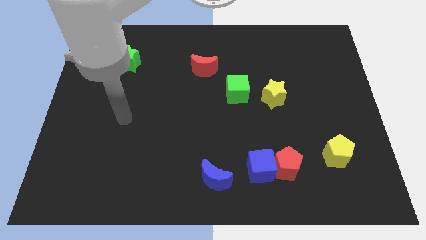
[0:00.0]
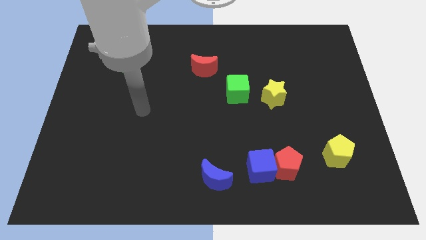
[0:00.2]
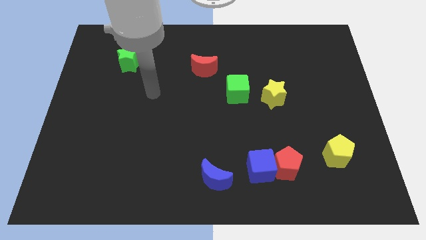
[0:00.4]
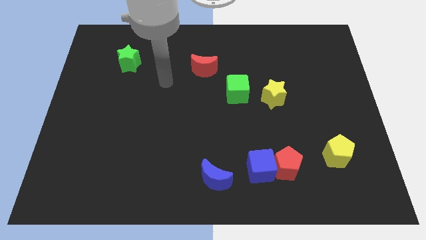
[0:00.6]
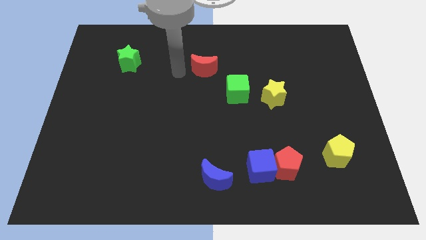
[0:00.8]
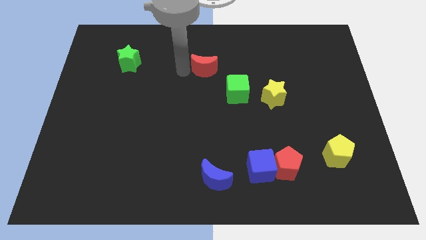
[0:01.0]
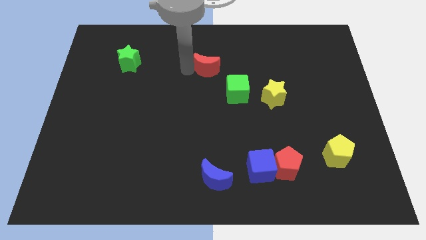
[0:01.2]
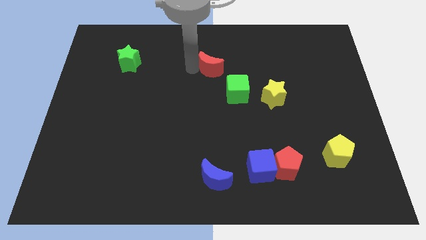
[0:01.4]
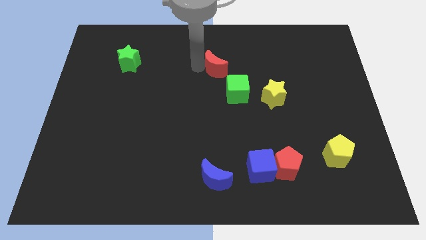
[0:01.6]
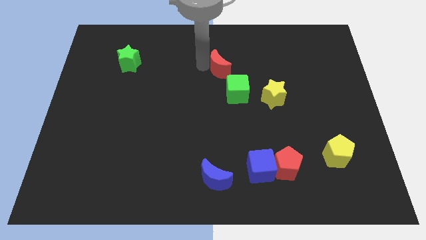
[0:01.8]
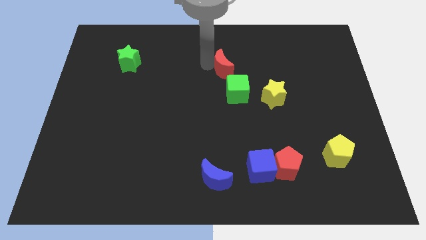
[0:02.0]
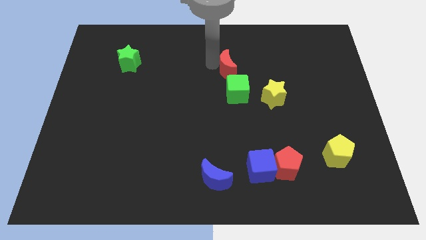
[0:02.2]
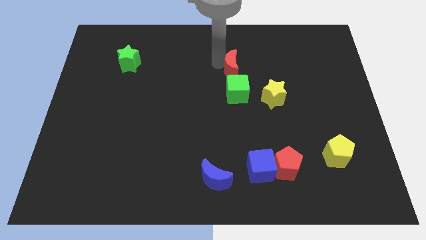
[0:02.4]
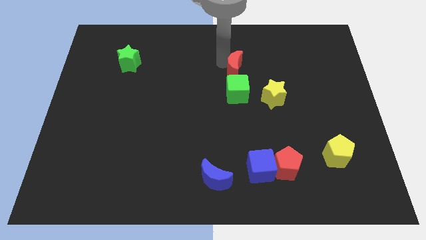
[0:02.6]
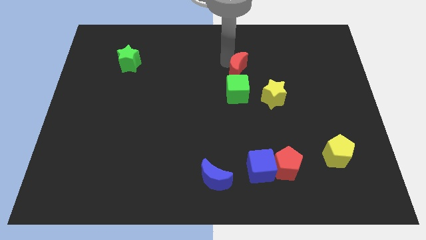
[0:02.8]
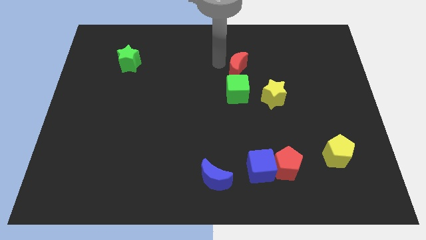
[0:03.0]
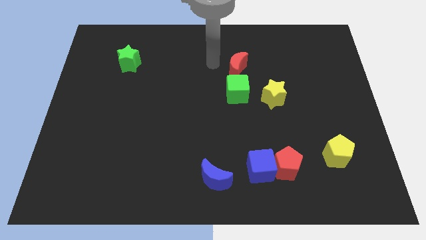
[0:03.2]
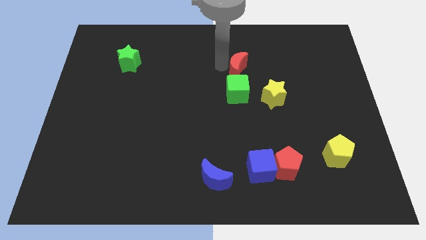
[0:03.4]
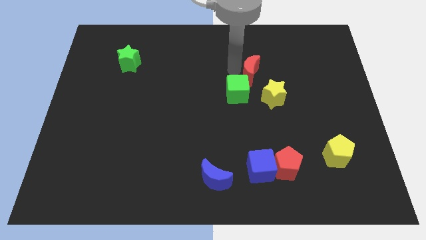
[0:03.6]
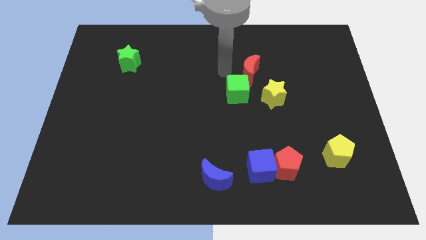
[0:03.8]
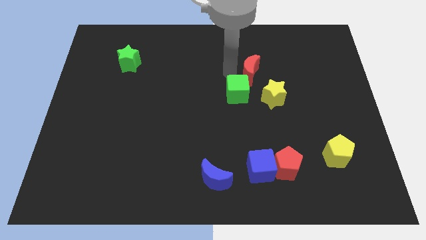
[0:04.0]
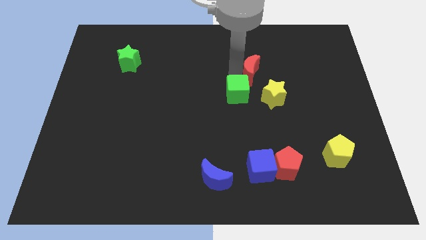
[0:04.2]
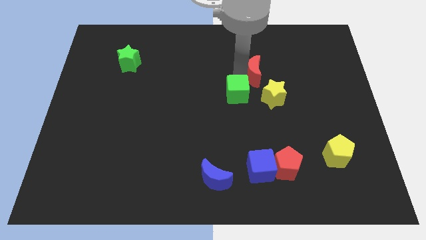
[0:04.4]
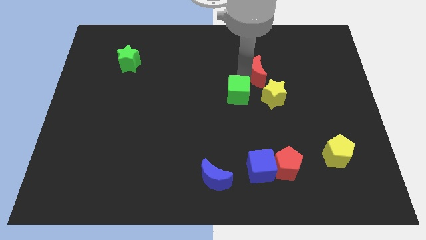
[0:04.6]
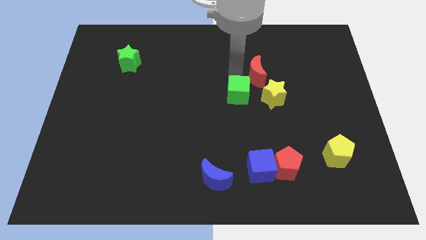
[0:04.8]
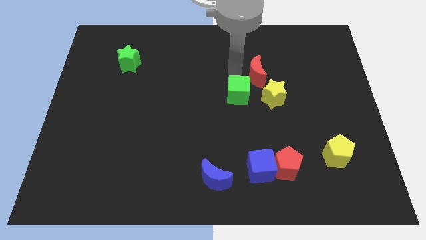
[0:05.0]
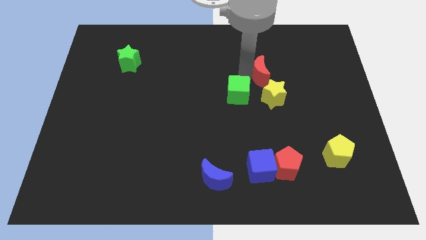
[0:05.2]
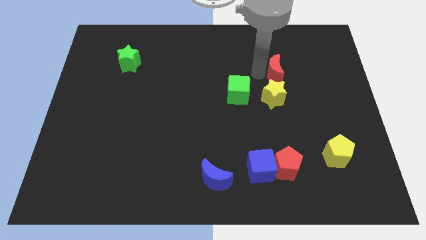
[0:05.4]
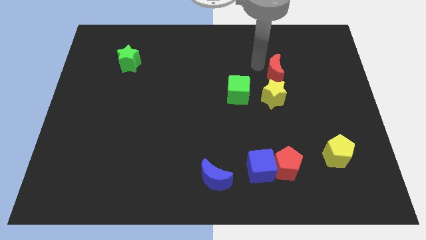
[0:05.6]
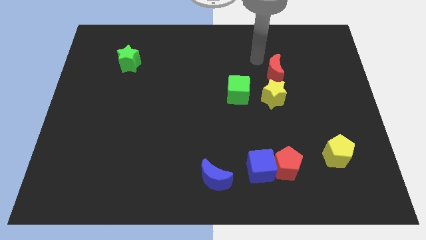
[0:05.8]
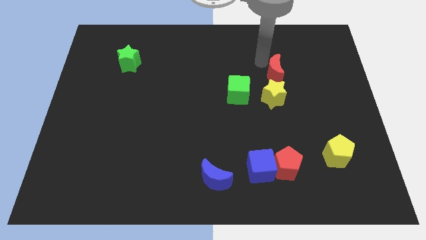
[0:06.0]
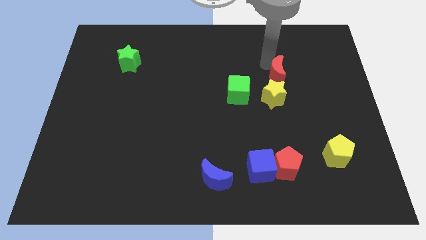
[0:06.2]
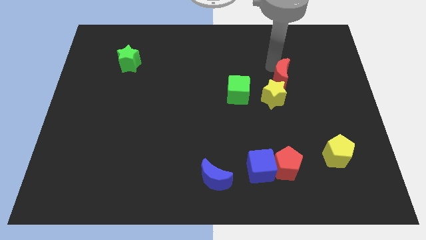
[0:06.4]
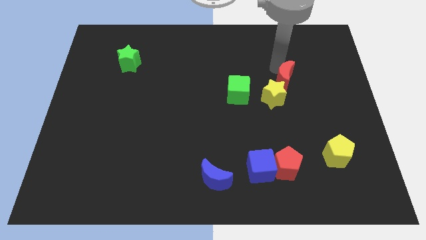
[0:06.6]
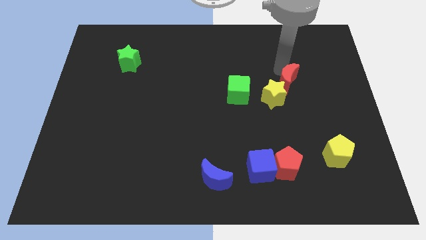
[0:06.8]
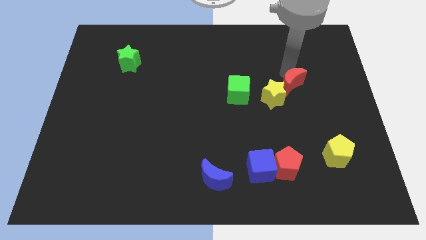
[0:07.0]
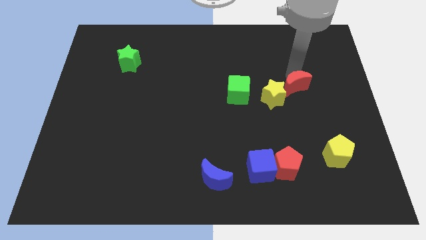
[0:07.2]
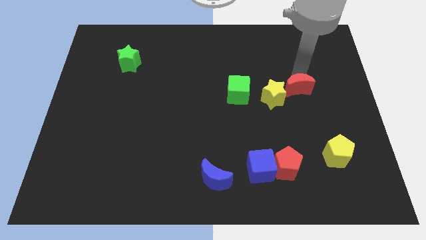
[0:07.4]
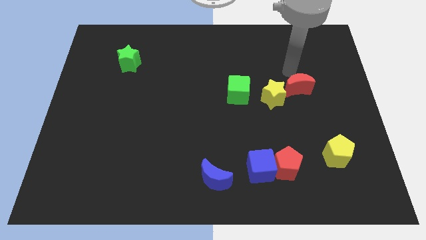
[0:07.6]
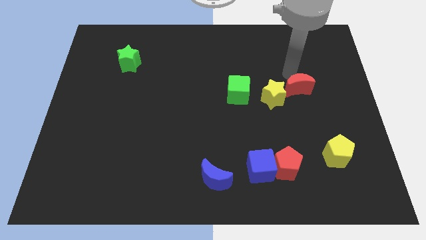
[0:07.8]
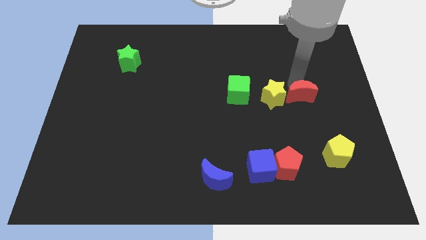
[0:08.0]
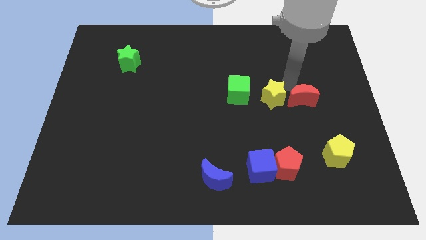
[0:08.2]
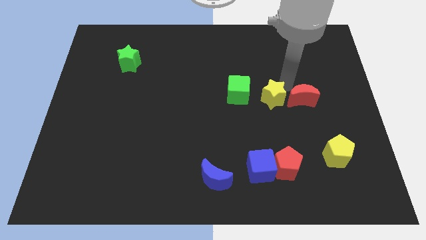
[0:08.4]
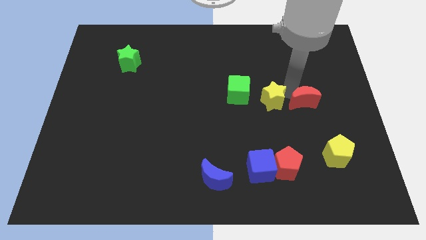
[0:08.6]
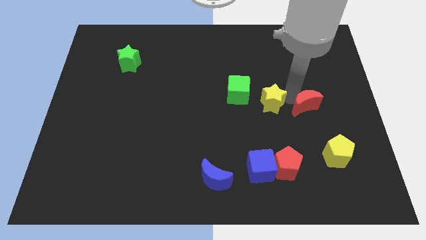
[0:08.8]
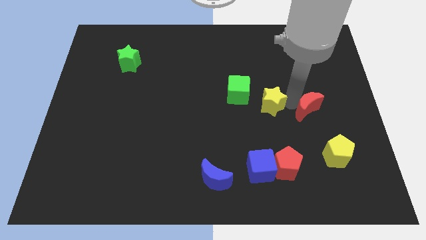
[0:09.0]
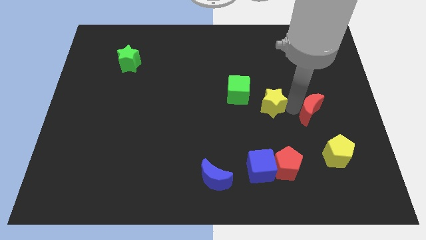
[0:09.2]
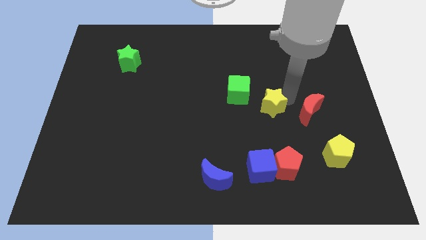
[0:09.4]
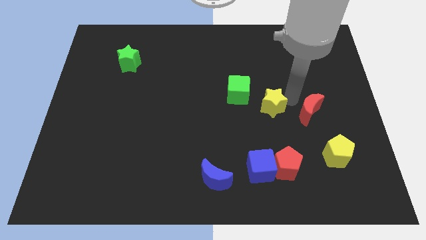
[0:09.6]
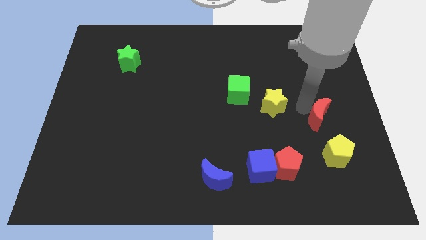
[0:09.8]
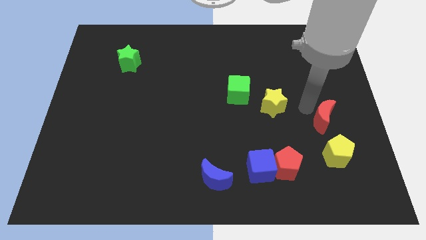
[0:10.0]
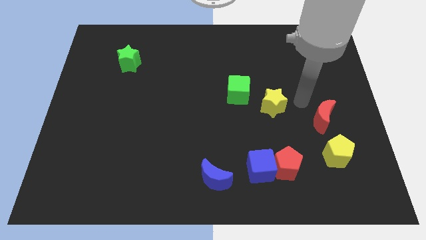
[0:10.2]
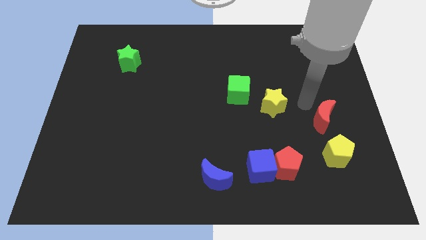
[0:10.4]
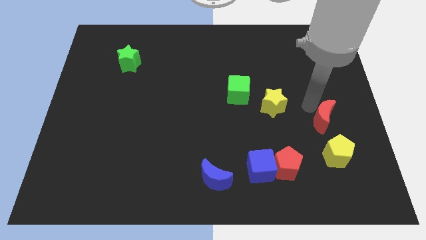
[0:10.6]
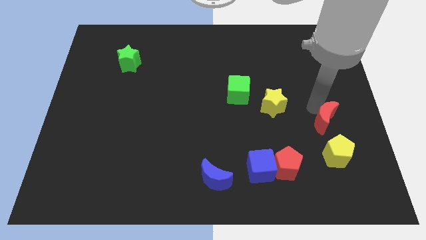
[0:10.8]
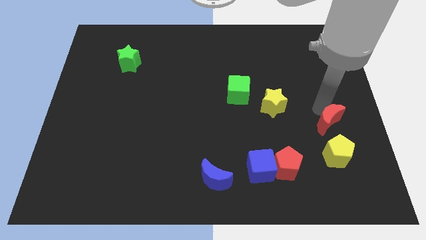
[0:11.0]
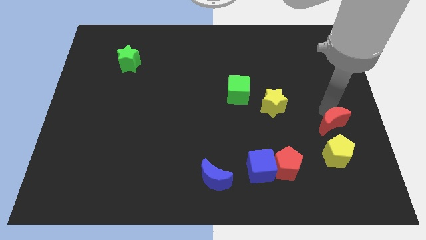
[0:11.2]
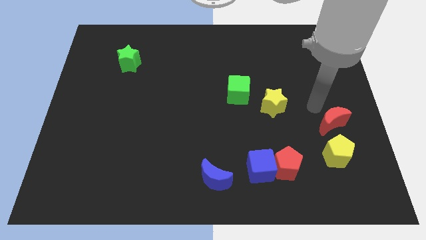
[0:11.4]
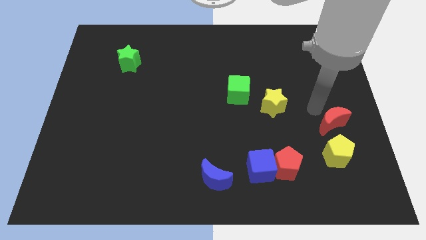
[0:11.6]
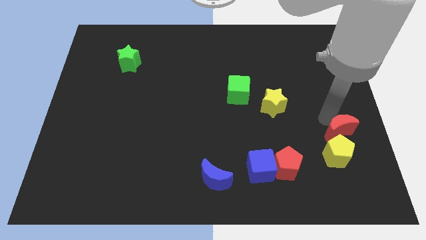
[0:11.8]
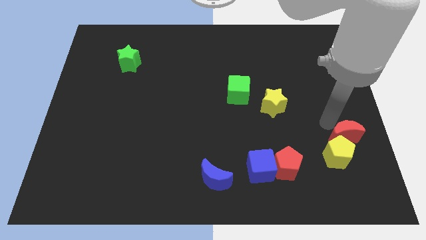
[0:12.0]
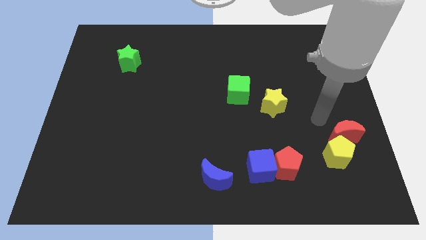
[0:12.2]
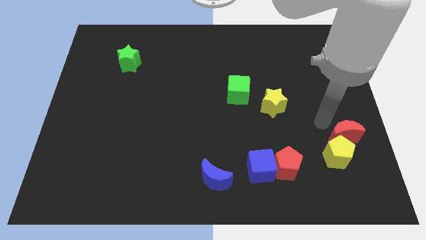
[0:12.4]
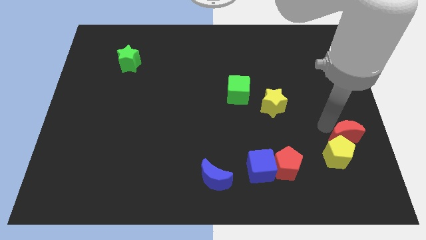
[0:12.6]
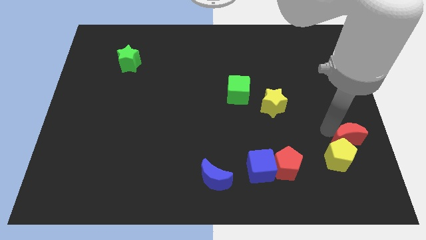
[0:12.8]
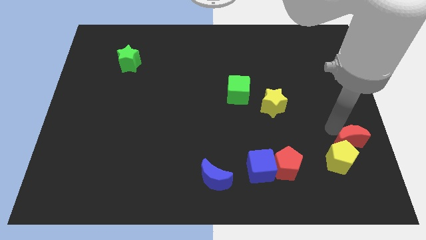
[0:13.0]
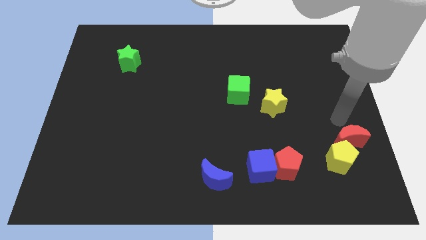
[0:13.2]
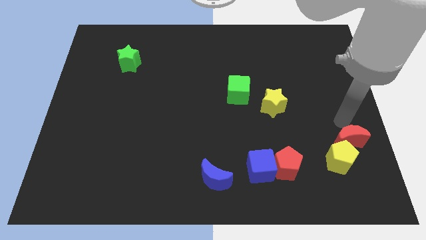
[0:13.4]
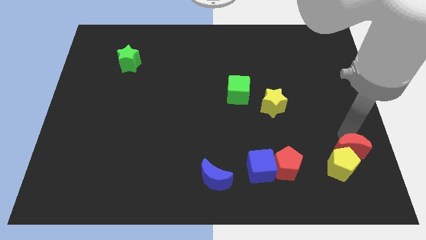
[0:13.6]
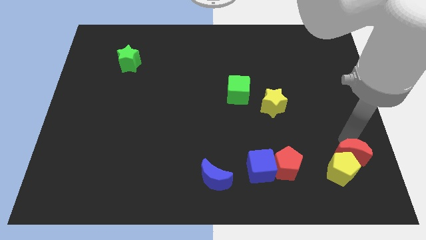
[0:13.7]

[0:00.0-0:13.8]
push the red moon right of the red pentagon
